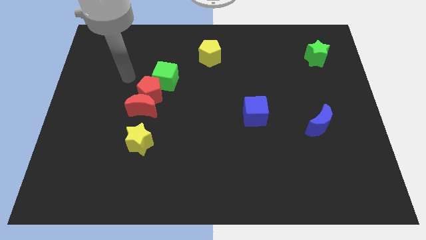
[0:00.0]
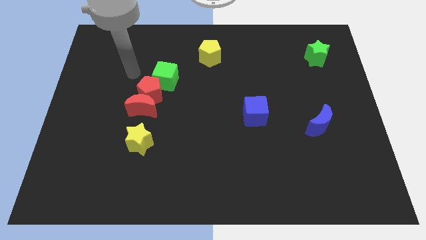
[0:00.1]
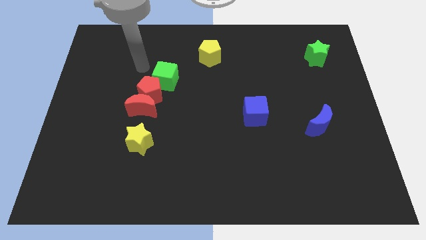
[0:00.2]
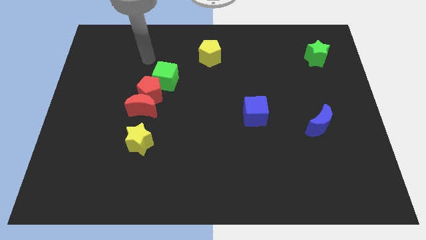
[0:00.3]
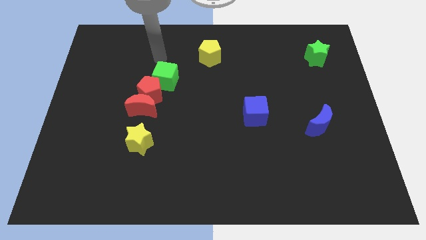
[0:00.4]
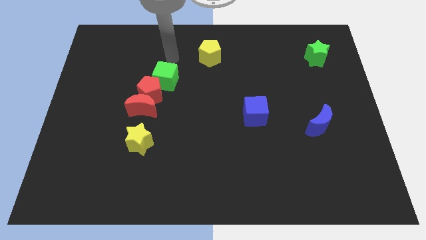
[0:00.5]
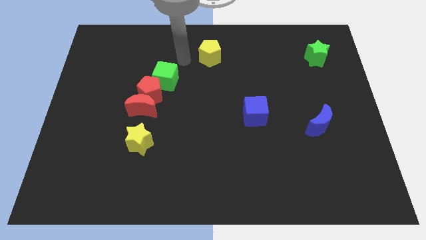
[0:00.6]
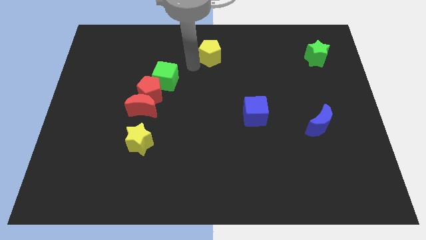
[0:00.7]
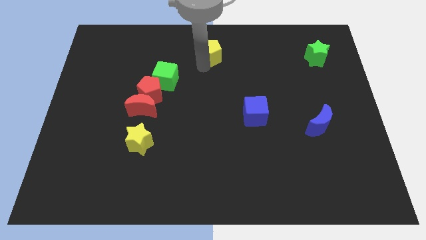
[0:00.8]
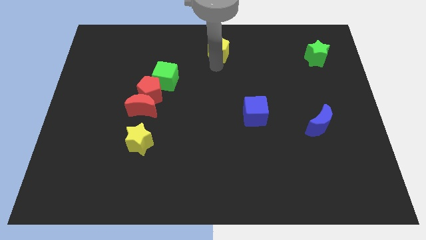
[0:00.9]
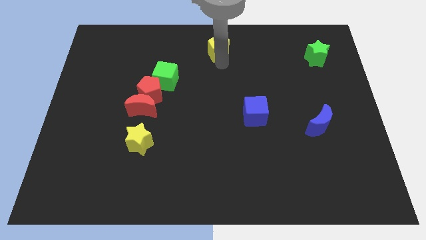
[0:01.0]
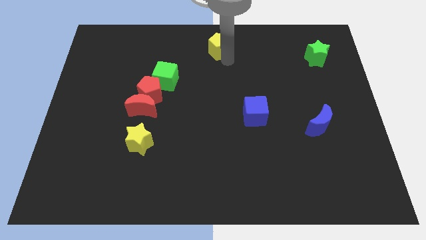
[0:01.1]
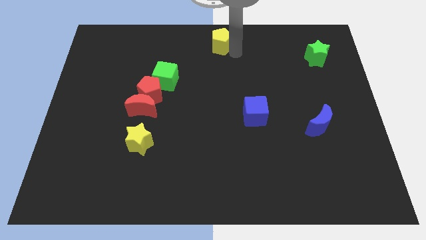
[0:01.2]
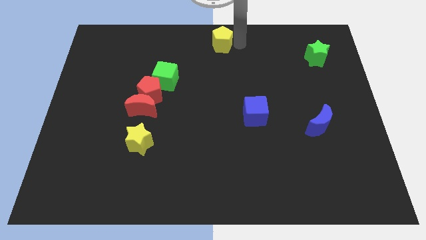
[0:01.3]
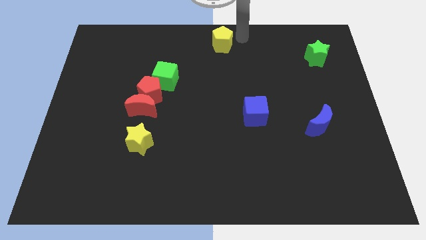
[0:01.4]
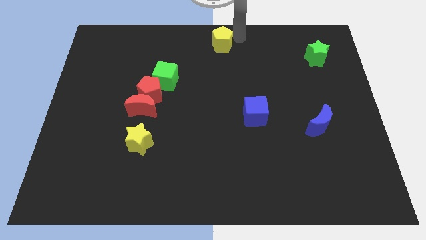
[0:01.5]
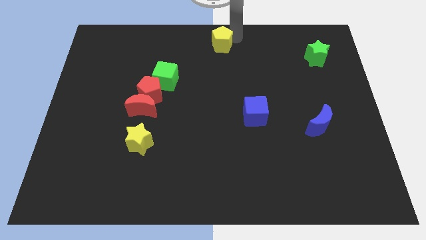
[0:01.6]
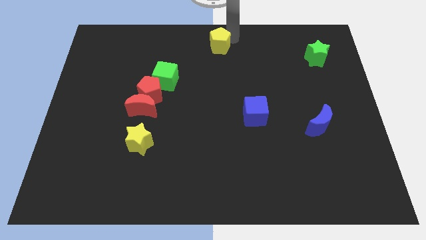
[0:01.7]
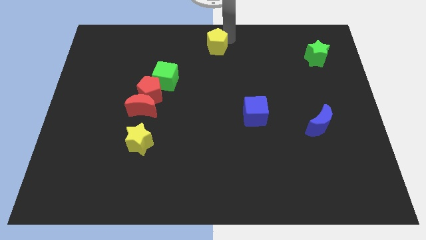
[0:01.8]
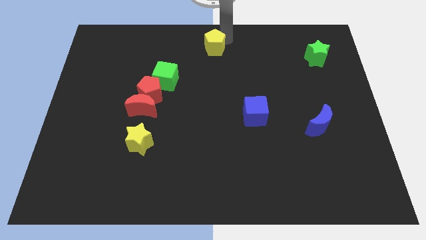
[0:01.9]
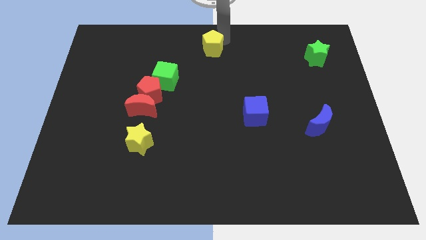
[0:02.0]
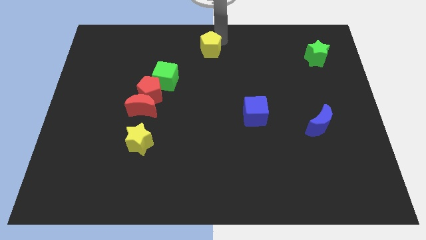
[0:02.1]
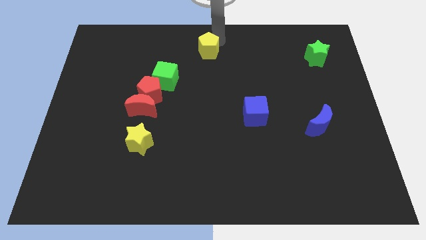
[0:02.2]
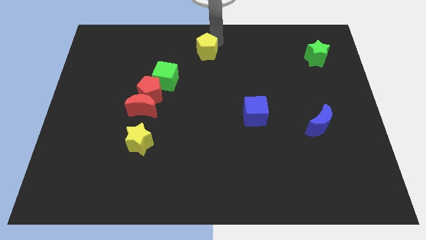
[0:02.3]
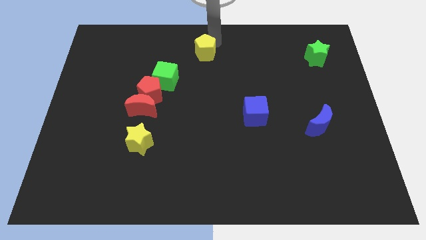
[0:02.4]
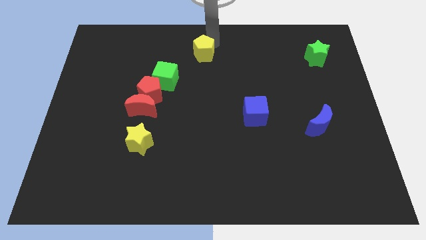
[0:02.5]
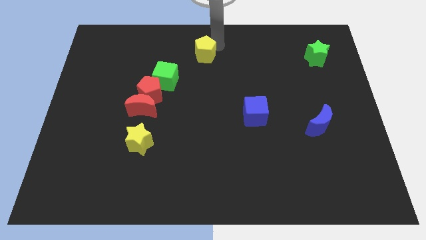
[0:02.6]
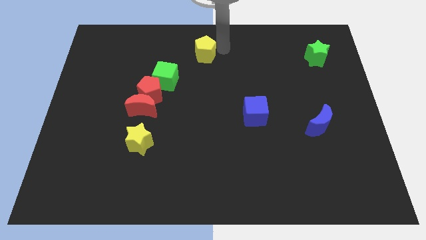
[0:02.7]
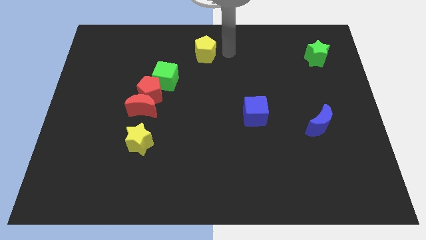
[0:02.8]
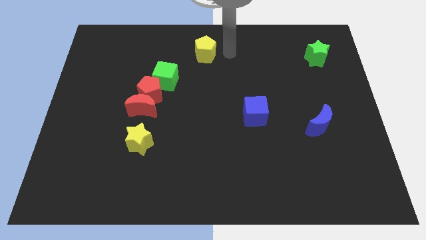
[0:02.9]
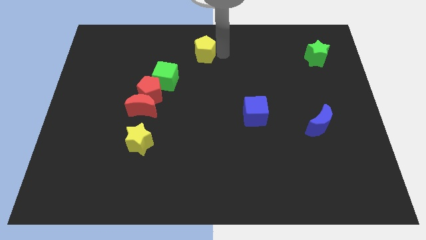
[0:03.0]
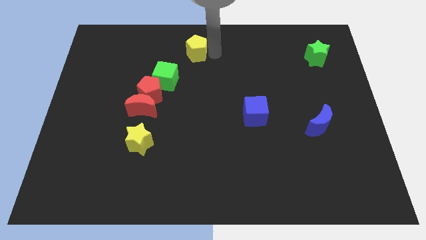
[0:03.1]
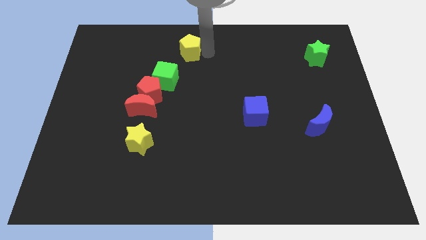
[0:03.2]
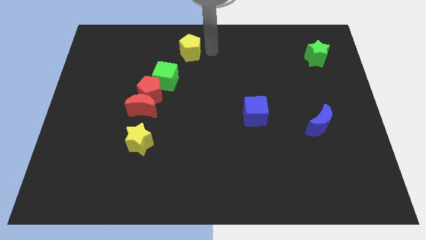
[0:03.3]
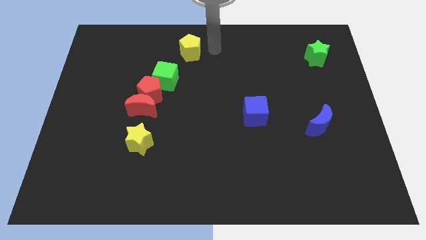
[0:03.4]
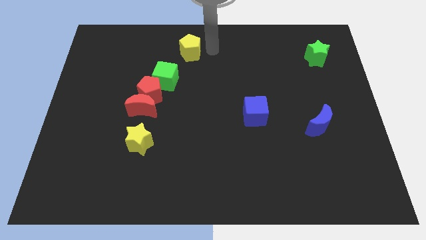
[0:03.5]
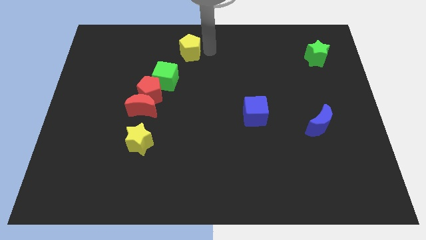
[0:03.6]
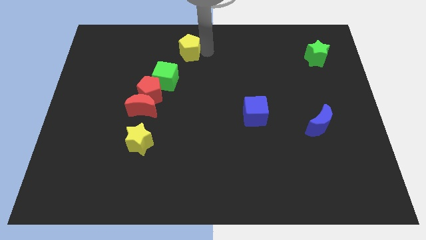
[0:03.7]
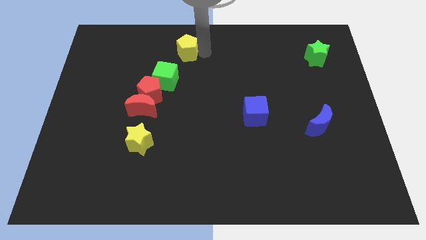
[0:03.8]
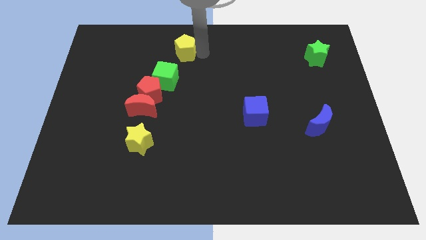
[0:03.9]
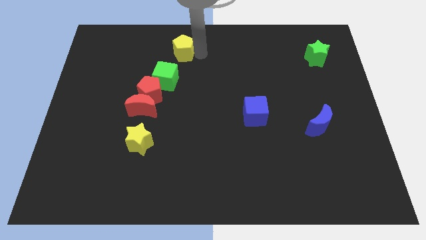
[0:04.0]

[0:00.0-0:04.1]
push the yellow pentagon somewhat left

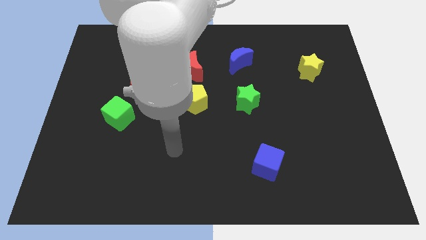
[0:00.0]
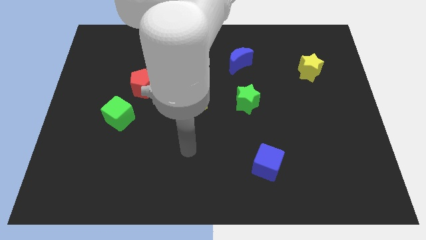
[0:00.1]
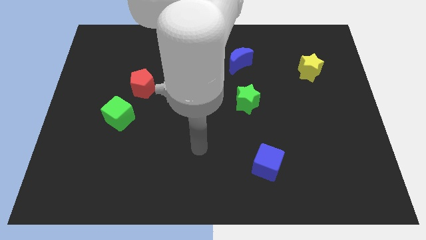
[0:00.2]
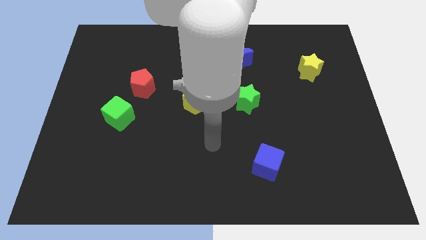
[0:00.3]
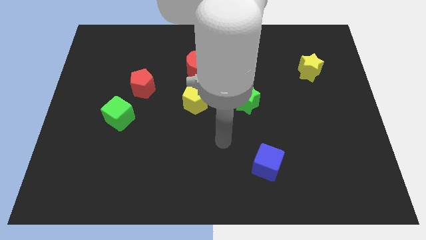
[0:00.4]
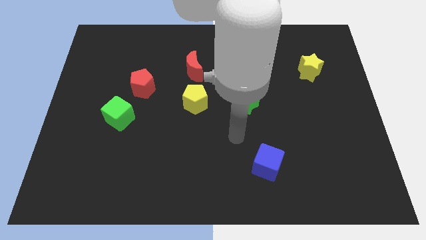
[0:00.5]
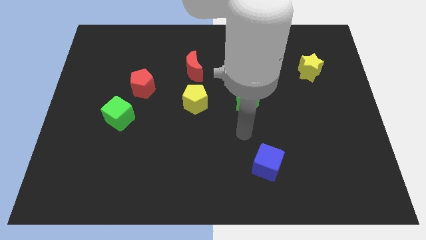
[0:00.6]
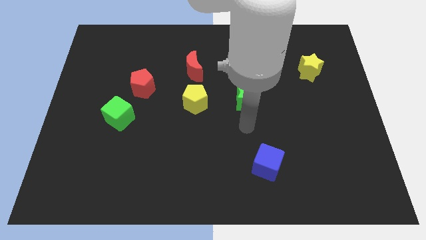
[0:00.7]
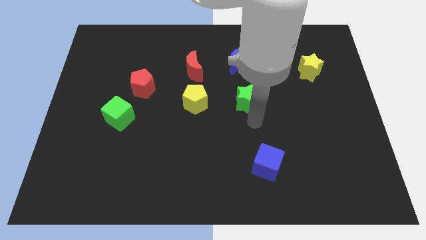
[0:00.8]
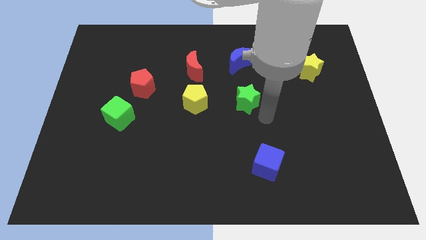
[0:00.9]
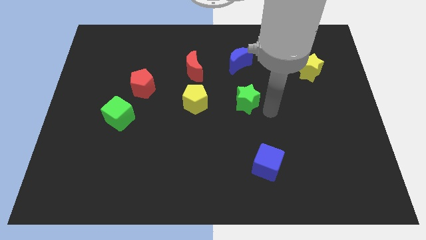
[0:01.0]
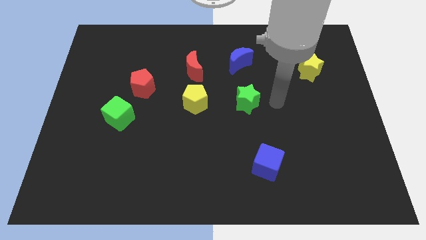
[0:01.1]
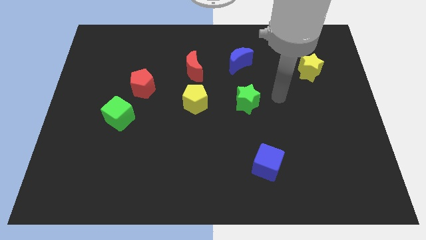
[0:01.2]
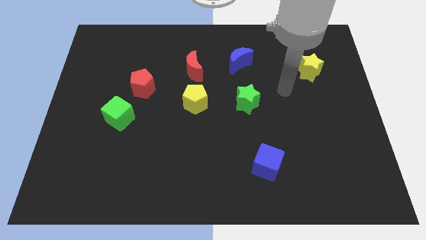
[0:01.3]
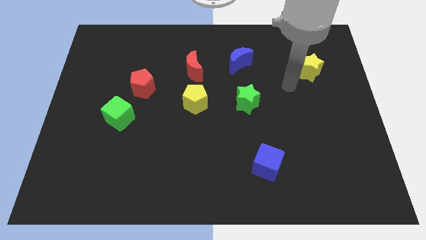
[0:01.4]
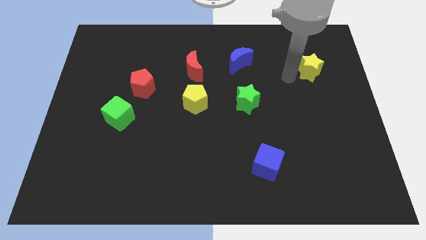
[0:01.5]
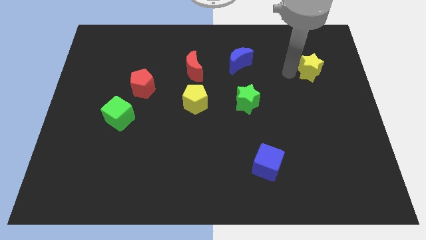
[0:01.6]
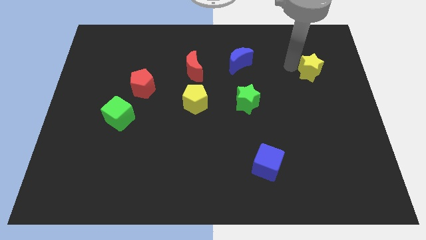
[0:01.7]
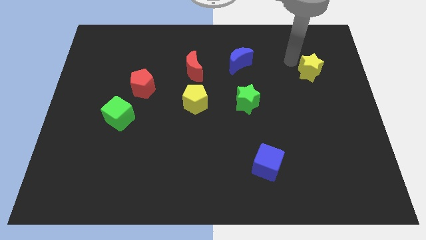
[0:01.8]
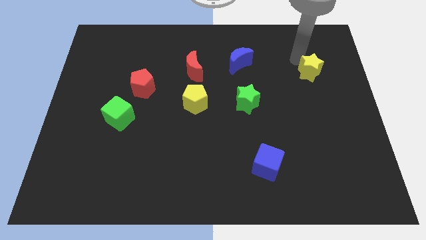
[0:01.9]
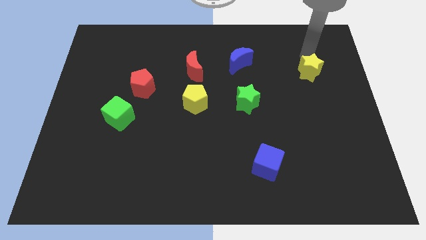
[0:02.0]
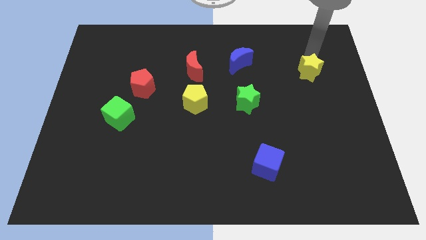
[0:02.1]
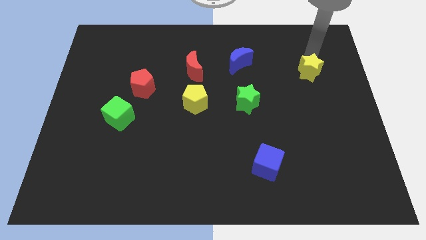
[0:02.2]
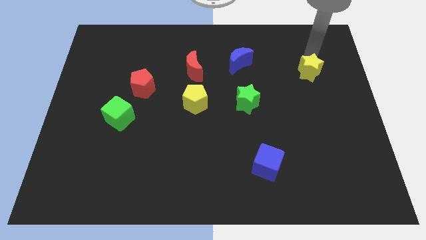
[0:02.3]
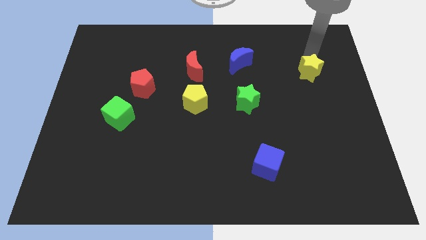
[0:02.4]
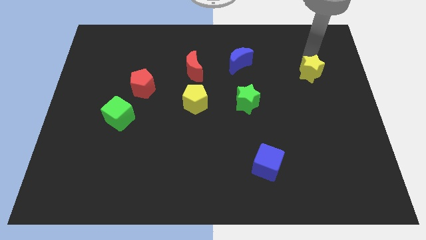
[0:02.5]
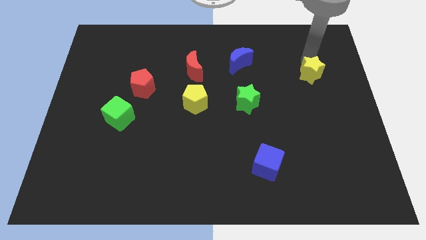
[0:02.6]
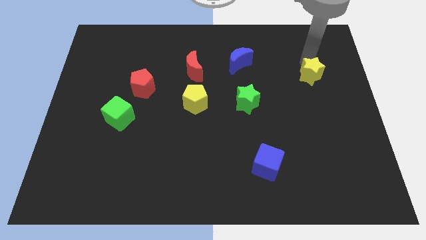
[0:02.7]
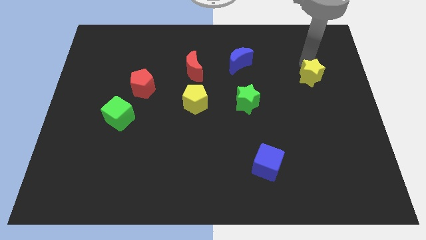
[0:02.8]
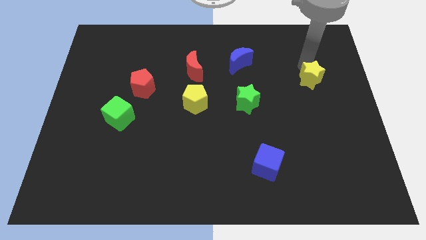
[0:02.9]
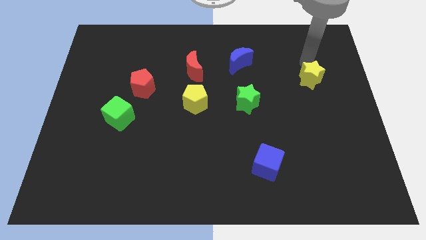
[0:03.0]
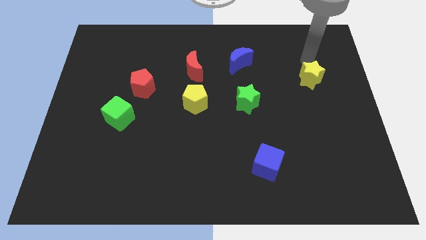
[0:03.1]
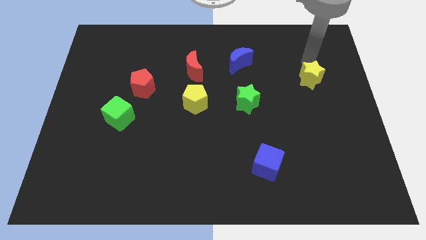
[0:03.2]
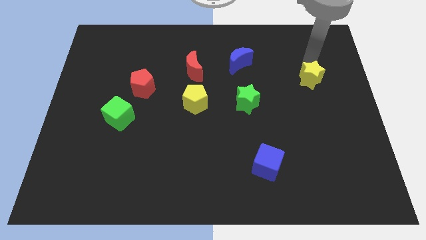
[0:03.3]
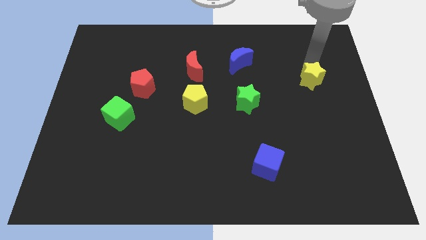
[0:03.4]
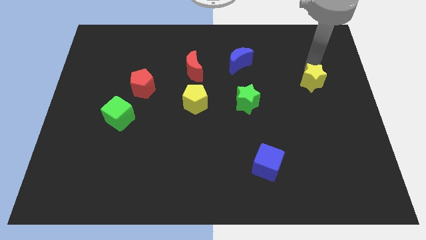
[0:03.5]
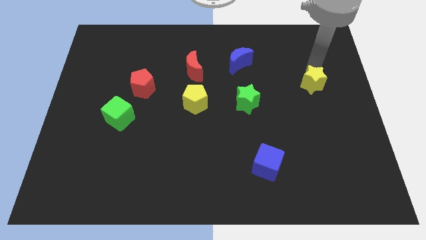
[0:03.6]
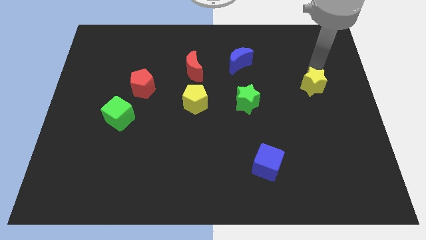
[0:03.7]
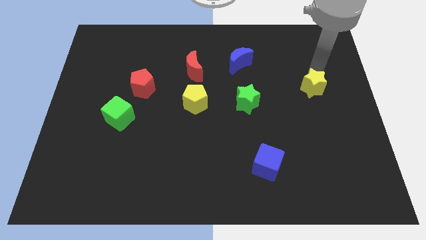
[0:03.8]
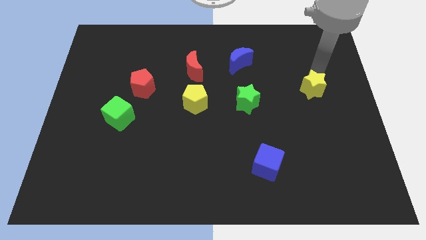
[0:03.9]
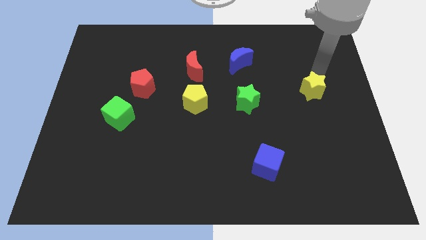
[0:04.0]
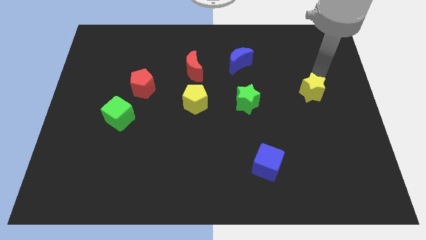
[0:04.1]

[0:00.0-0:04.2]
slightly push the yellow star downwards
